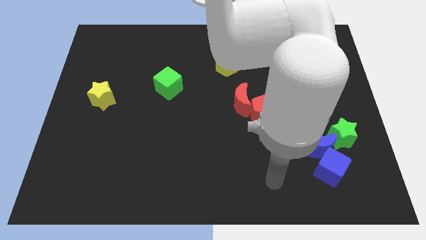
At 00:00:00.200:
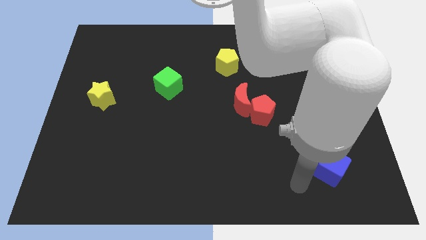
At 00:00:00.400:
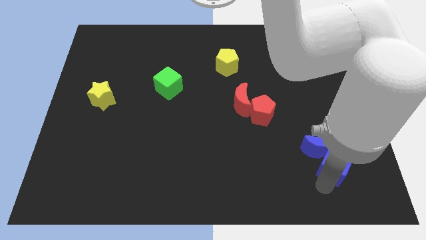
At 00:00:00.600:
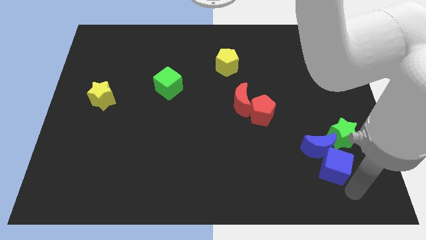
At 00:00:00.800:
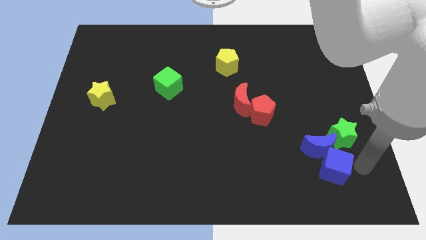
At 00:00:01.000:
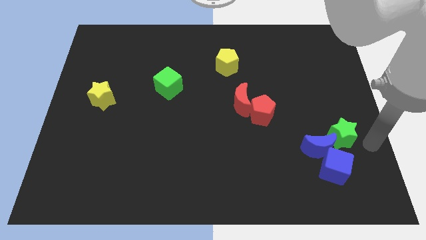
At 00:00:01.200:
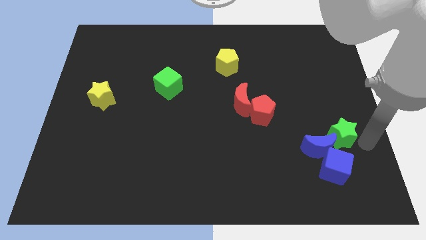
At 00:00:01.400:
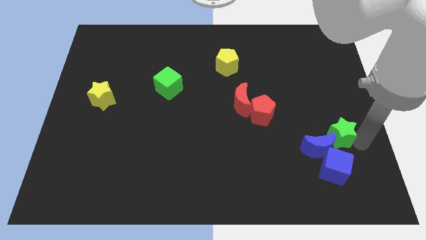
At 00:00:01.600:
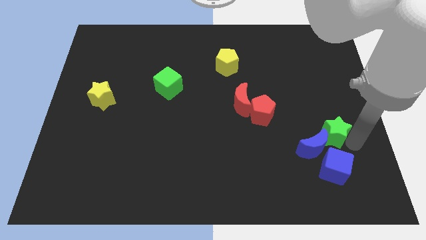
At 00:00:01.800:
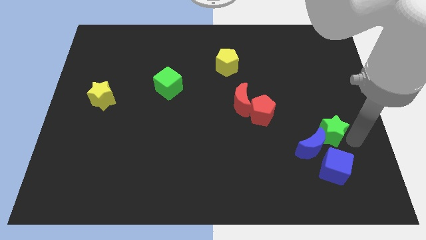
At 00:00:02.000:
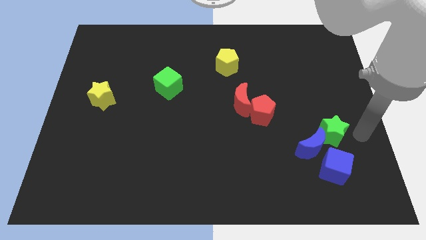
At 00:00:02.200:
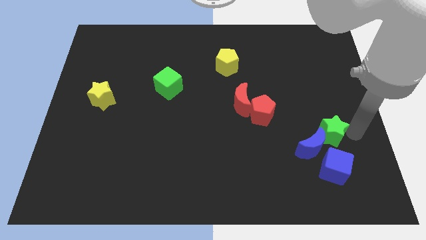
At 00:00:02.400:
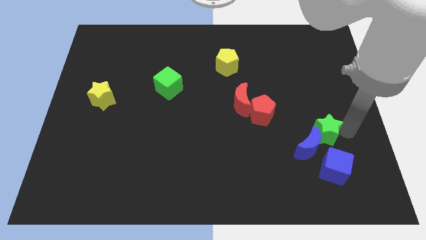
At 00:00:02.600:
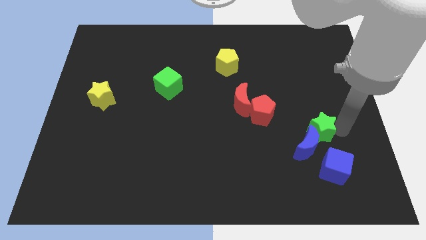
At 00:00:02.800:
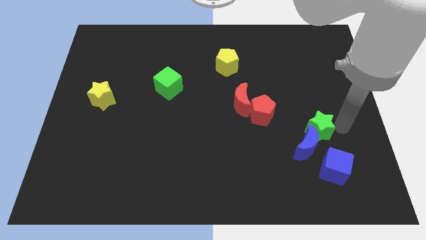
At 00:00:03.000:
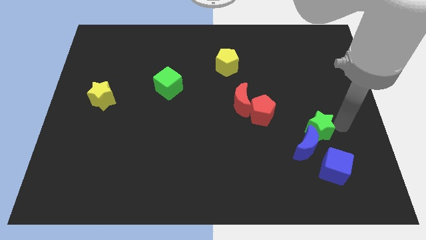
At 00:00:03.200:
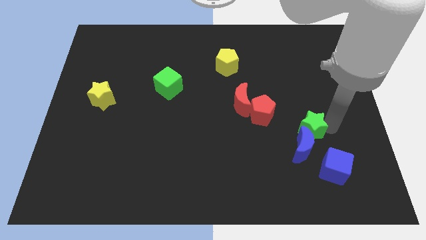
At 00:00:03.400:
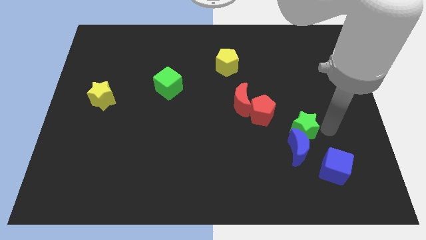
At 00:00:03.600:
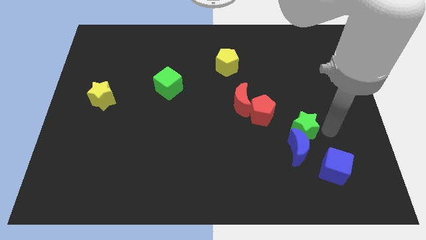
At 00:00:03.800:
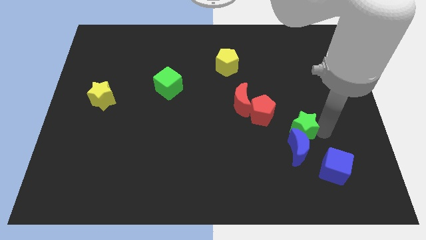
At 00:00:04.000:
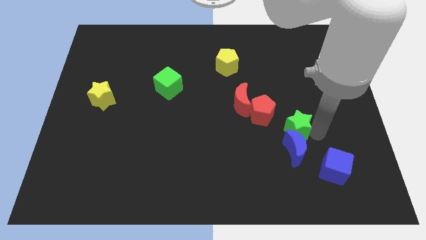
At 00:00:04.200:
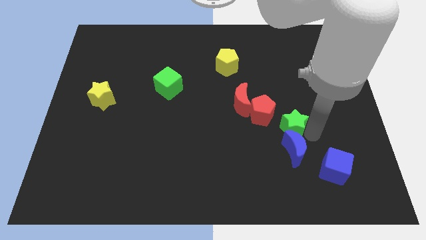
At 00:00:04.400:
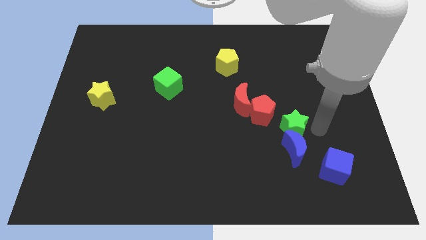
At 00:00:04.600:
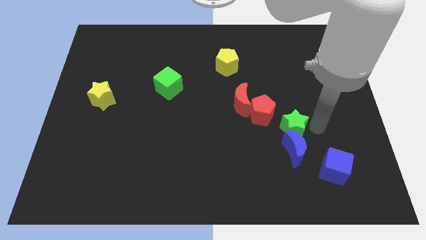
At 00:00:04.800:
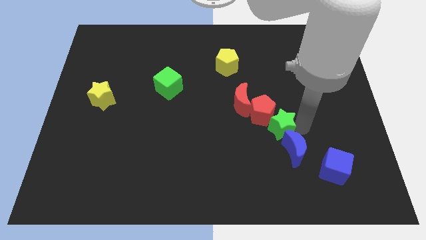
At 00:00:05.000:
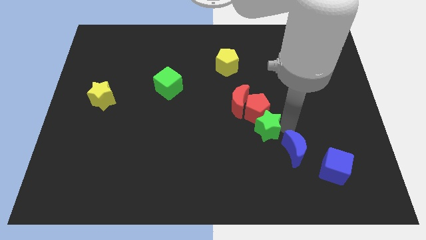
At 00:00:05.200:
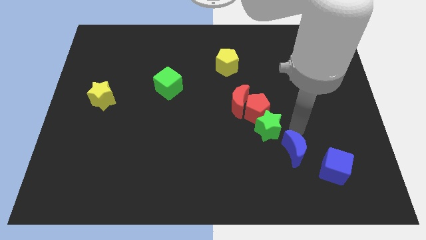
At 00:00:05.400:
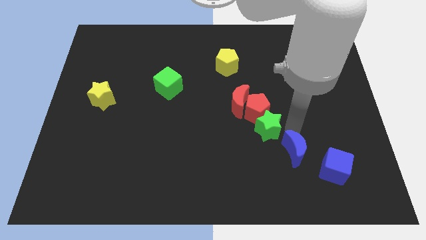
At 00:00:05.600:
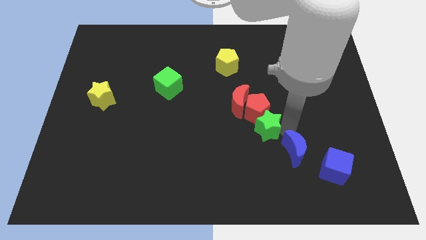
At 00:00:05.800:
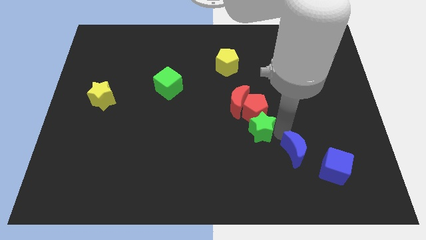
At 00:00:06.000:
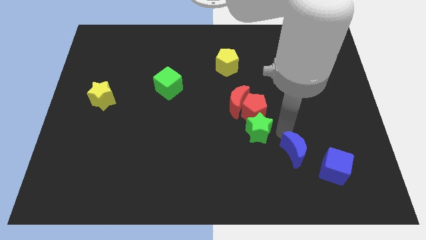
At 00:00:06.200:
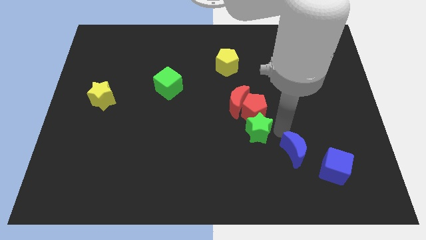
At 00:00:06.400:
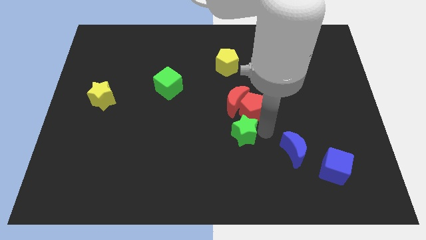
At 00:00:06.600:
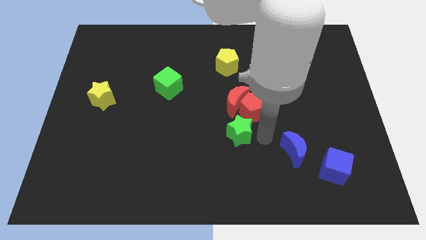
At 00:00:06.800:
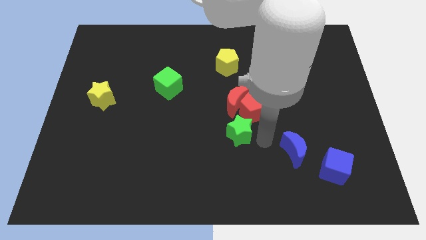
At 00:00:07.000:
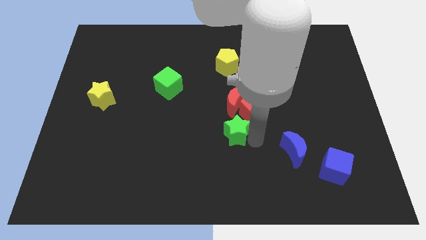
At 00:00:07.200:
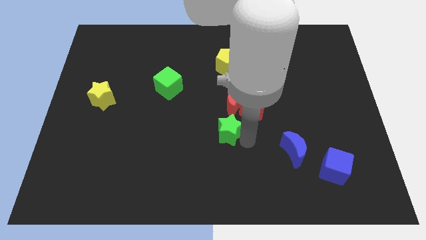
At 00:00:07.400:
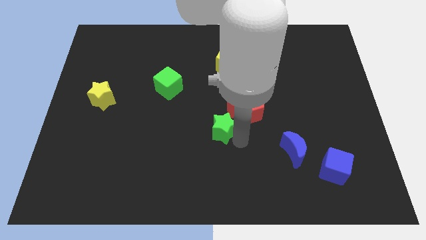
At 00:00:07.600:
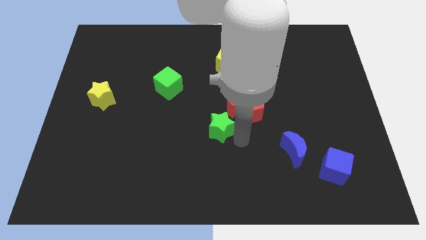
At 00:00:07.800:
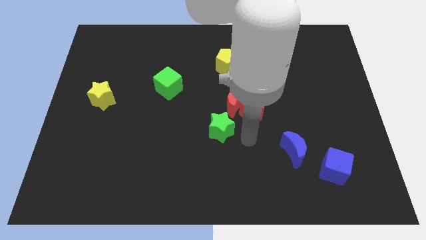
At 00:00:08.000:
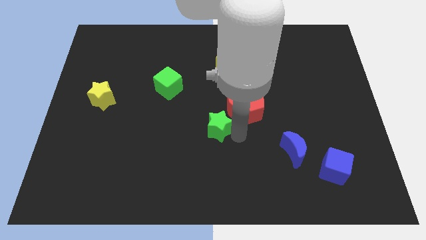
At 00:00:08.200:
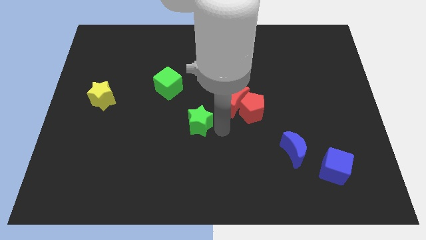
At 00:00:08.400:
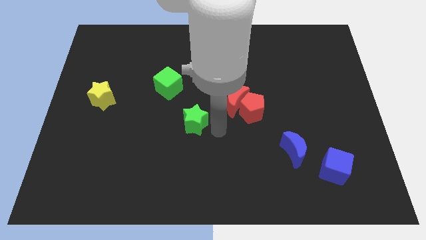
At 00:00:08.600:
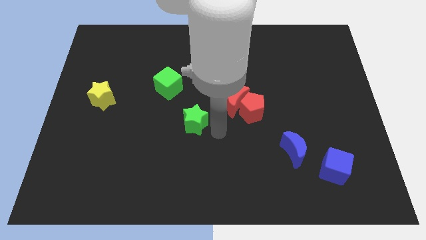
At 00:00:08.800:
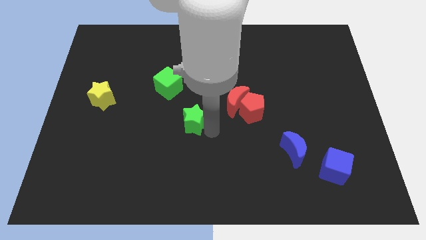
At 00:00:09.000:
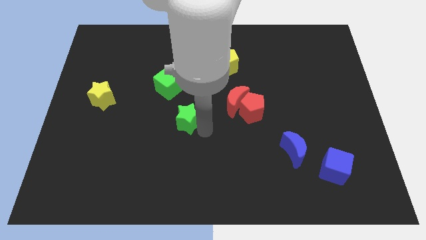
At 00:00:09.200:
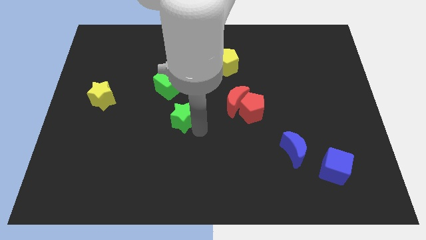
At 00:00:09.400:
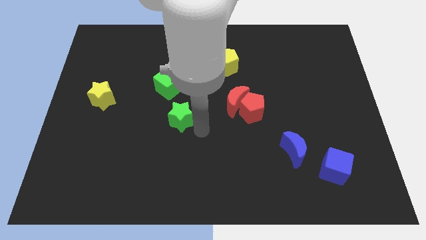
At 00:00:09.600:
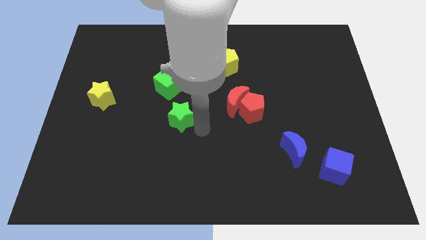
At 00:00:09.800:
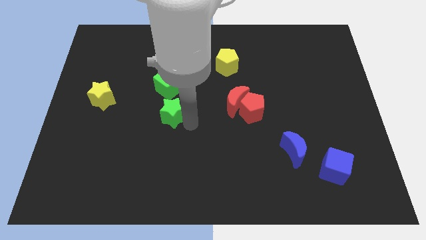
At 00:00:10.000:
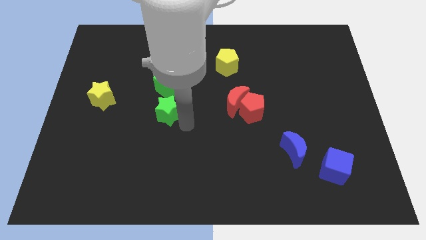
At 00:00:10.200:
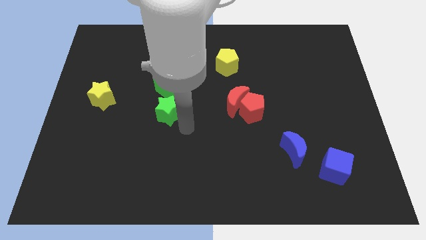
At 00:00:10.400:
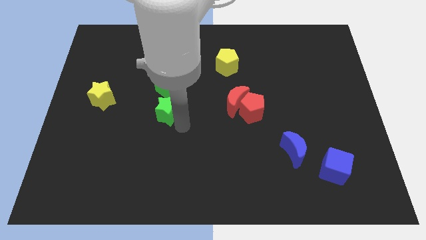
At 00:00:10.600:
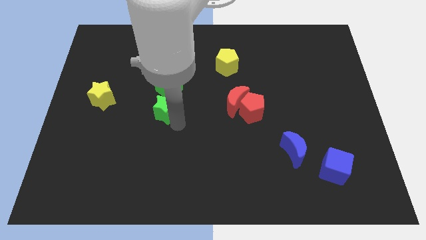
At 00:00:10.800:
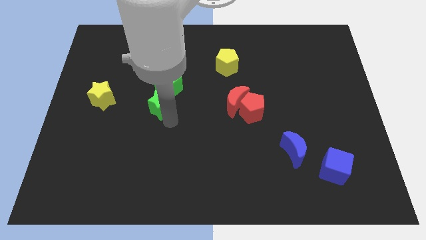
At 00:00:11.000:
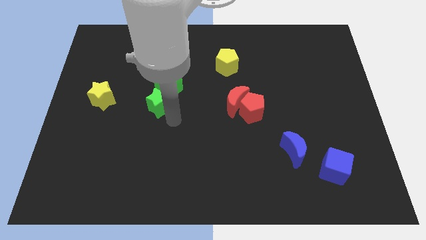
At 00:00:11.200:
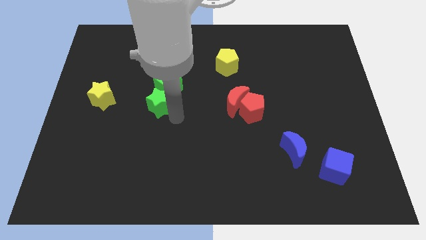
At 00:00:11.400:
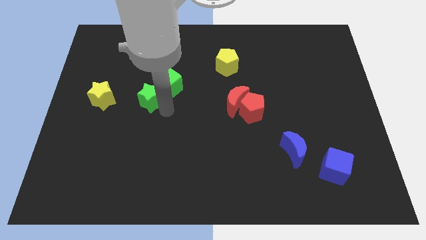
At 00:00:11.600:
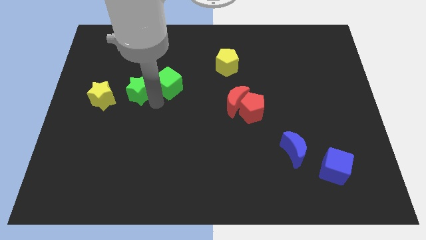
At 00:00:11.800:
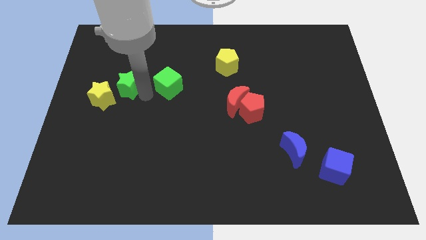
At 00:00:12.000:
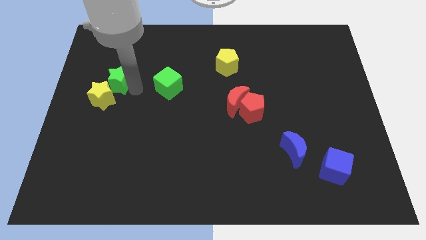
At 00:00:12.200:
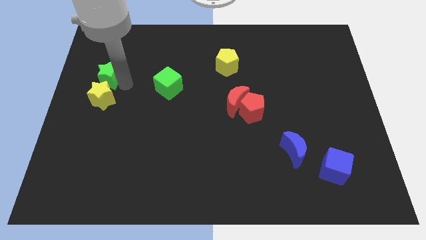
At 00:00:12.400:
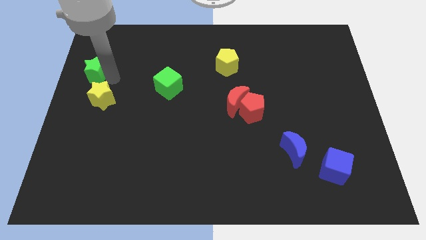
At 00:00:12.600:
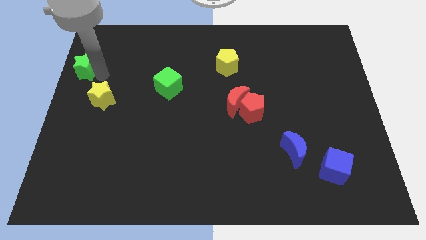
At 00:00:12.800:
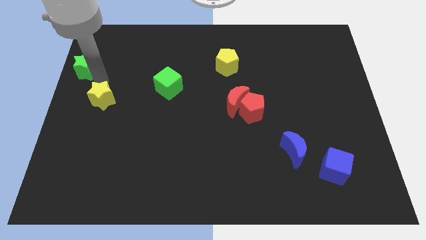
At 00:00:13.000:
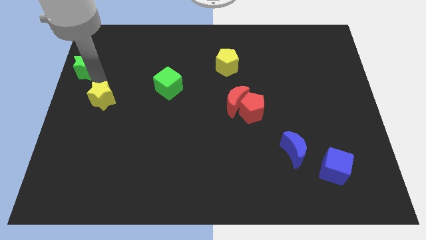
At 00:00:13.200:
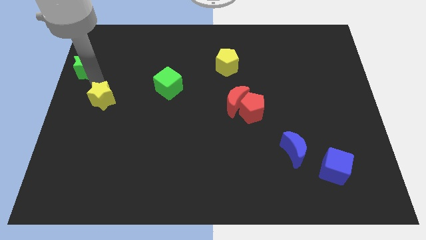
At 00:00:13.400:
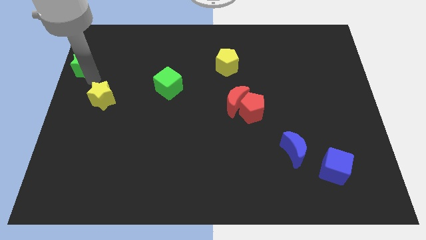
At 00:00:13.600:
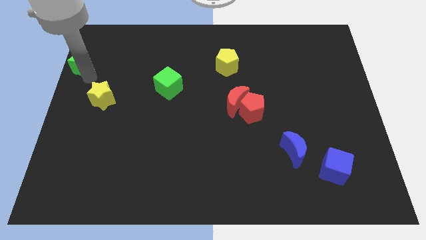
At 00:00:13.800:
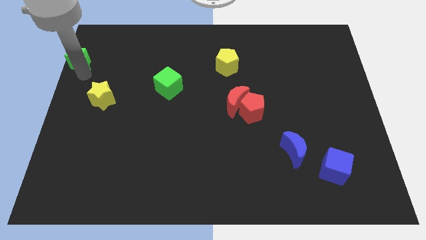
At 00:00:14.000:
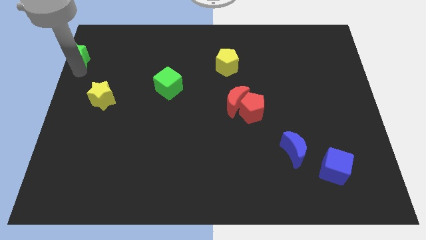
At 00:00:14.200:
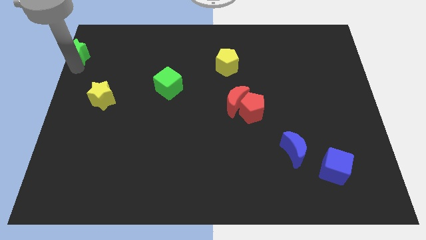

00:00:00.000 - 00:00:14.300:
put the green star to the upper left corner
